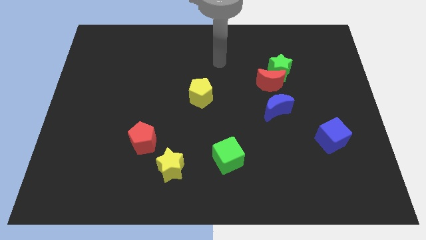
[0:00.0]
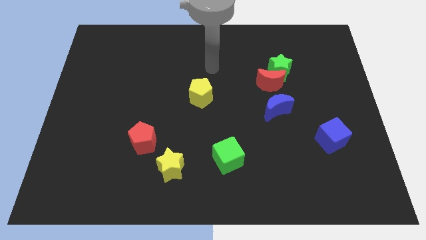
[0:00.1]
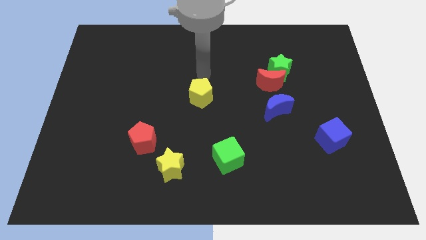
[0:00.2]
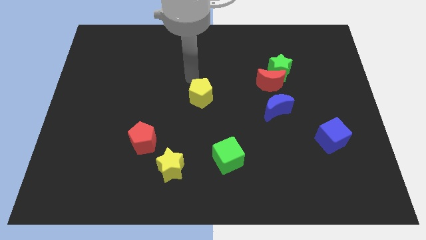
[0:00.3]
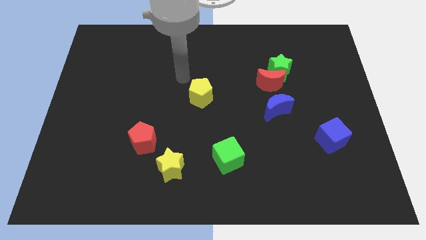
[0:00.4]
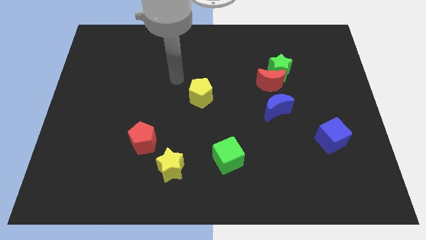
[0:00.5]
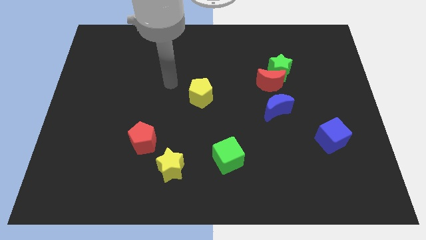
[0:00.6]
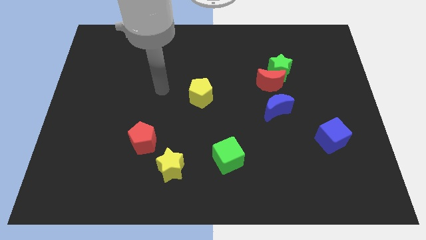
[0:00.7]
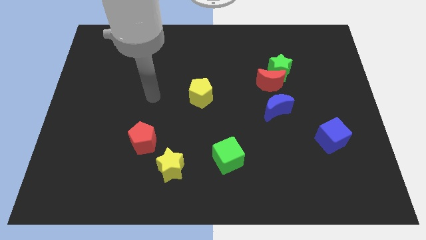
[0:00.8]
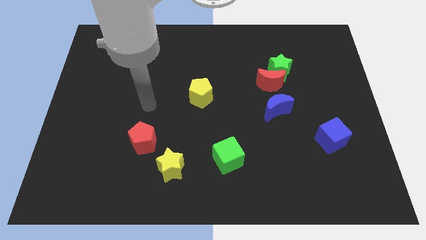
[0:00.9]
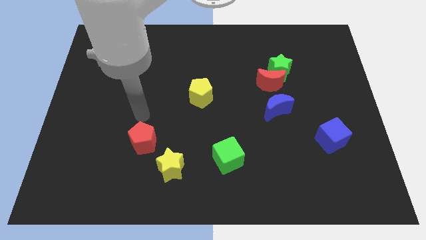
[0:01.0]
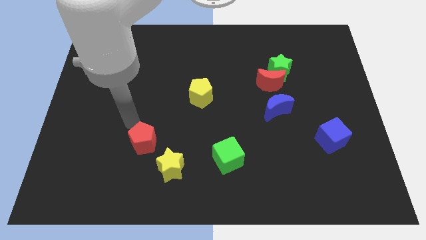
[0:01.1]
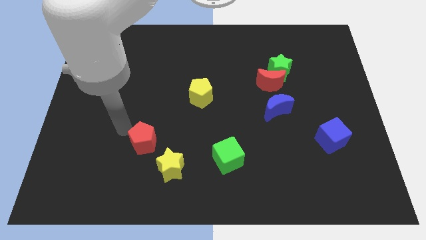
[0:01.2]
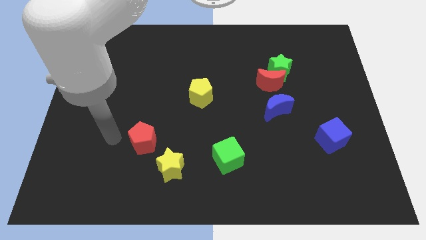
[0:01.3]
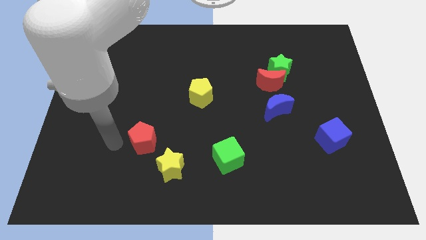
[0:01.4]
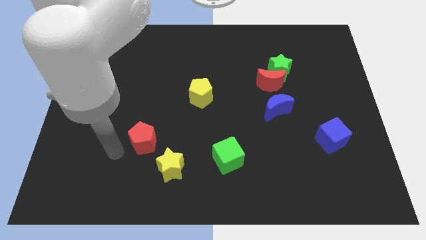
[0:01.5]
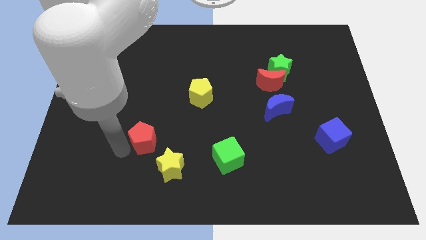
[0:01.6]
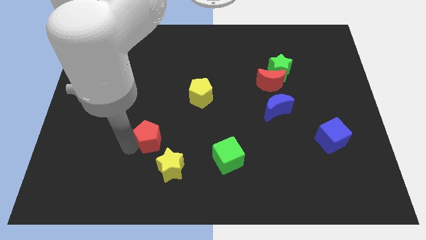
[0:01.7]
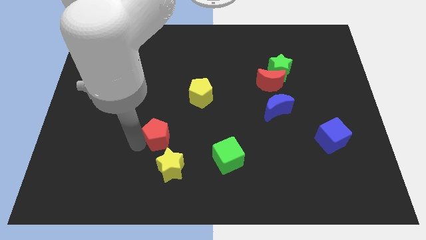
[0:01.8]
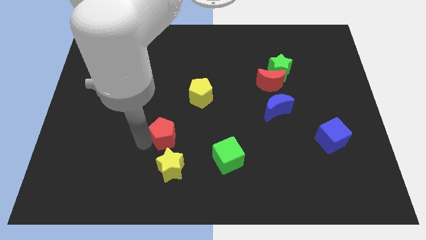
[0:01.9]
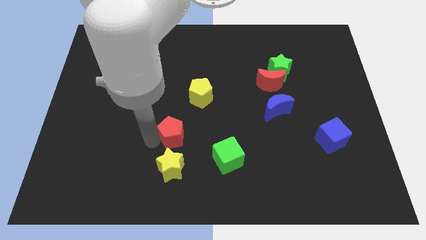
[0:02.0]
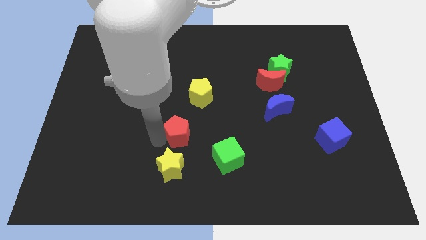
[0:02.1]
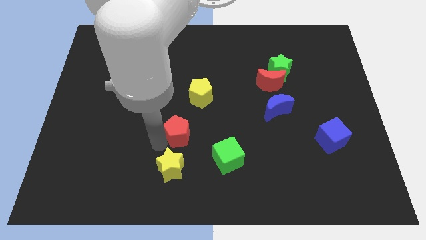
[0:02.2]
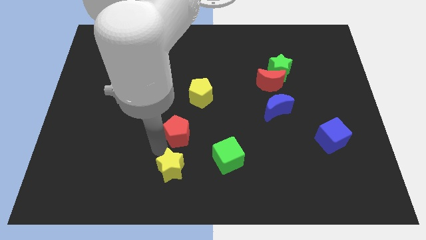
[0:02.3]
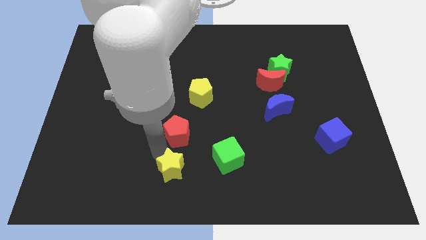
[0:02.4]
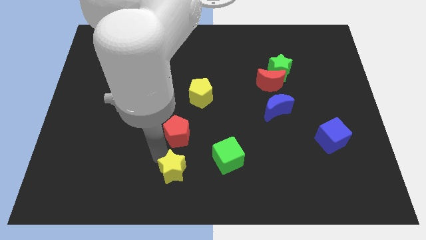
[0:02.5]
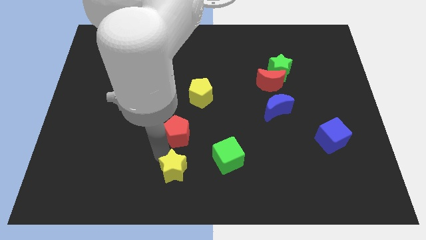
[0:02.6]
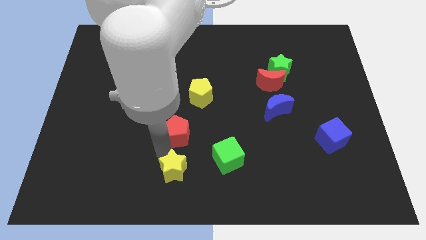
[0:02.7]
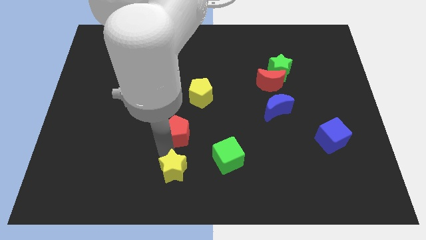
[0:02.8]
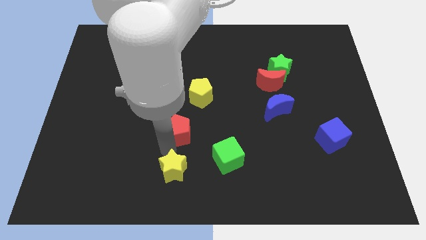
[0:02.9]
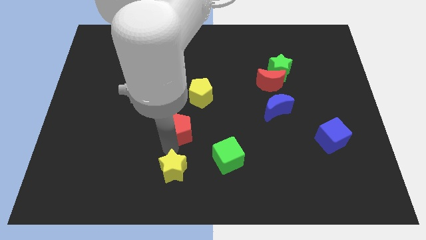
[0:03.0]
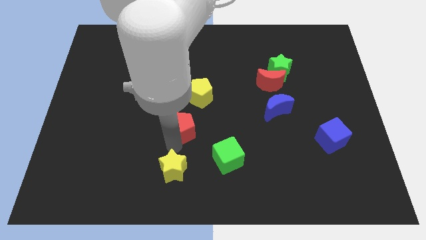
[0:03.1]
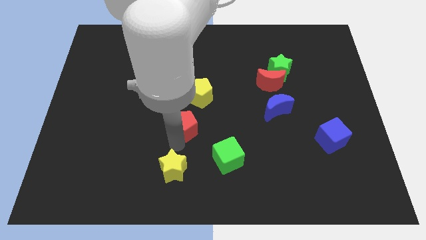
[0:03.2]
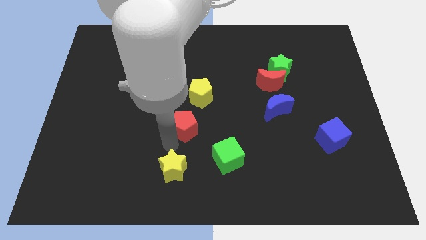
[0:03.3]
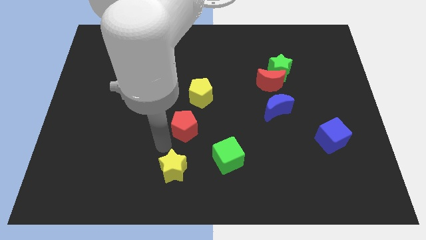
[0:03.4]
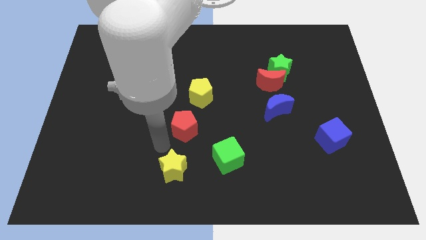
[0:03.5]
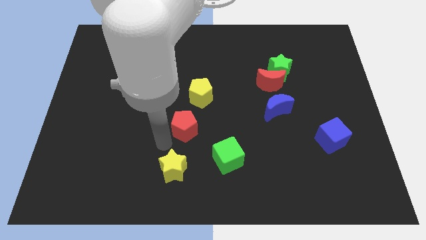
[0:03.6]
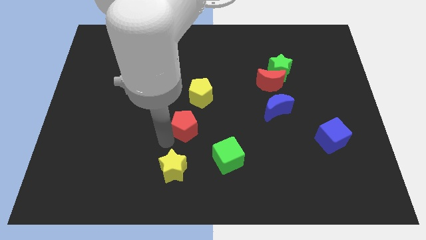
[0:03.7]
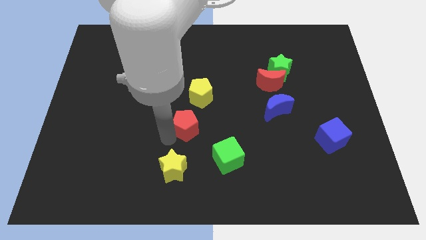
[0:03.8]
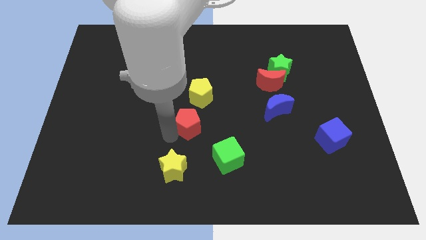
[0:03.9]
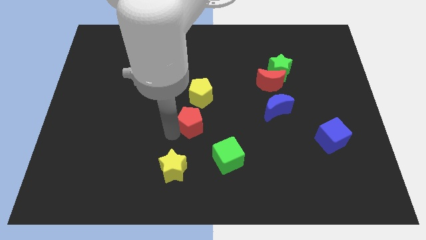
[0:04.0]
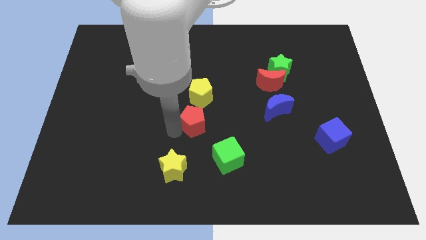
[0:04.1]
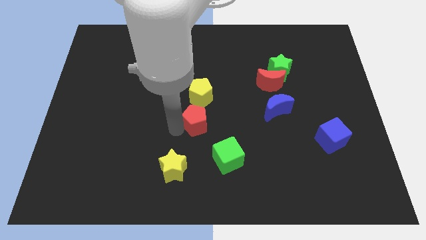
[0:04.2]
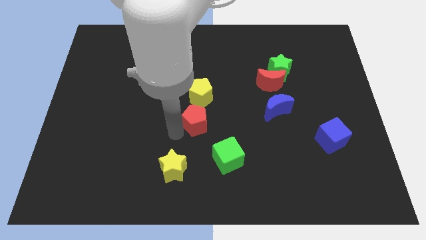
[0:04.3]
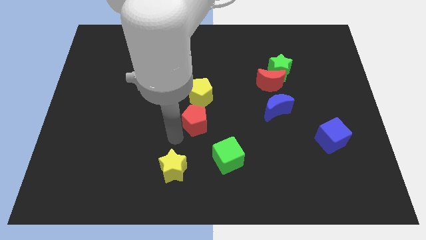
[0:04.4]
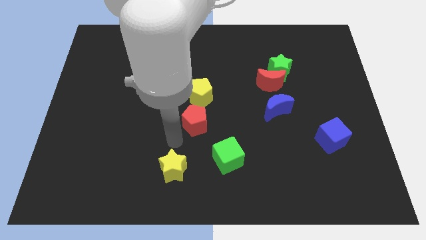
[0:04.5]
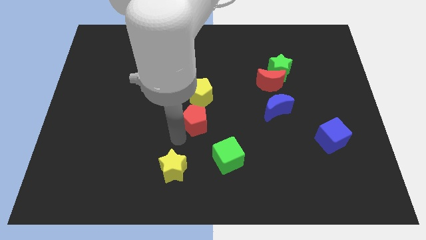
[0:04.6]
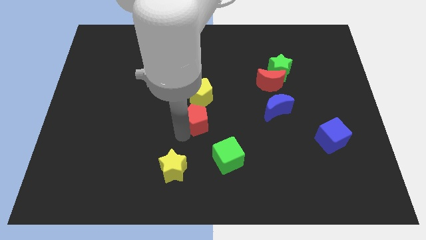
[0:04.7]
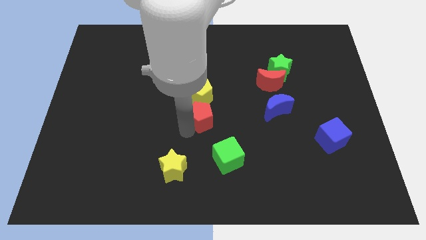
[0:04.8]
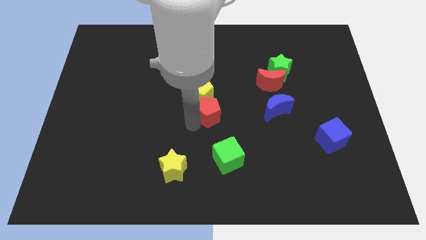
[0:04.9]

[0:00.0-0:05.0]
slide the red pentagon to the left of the blue moon

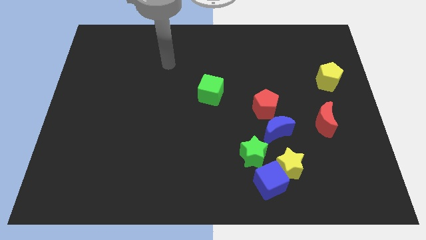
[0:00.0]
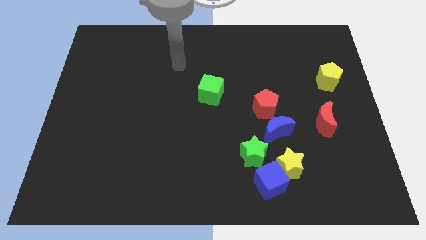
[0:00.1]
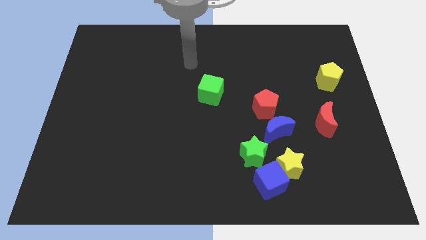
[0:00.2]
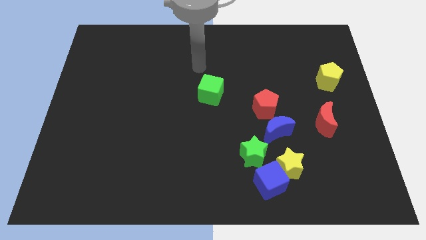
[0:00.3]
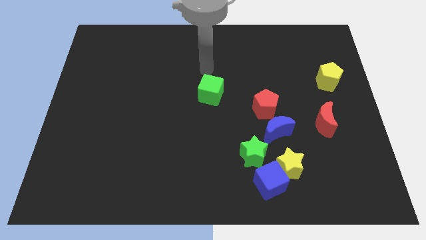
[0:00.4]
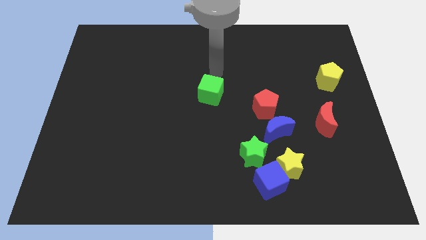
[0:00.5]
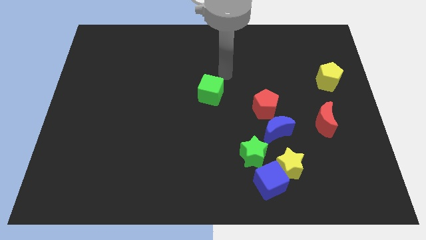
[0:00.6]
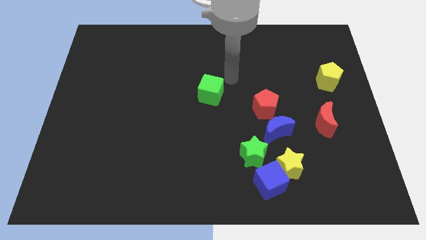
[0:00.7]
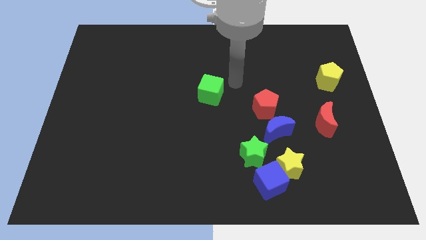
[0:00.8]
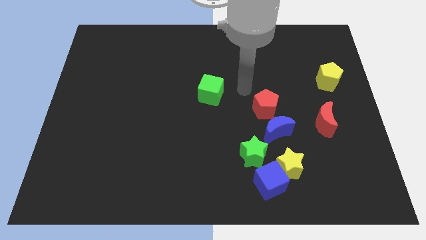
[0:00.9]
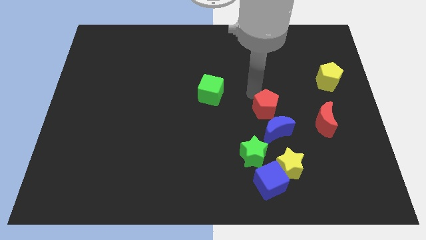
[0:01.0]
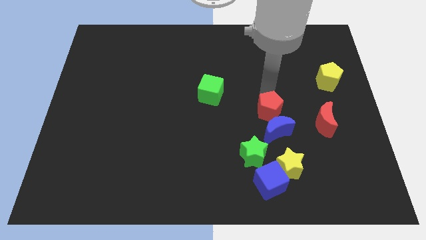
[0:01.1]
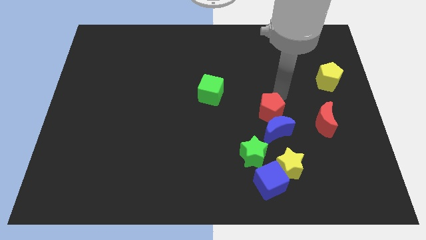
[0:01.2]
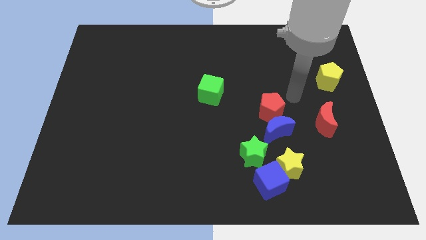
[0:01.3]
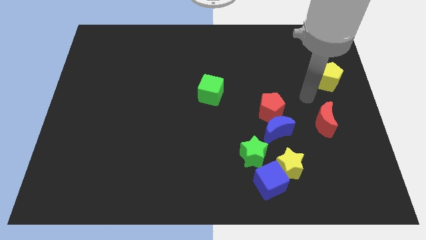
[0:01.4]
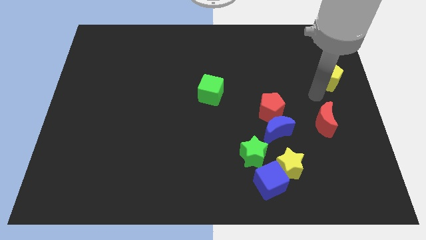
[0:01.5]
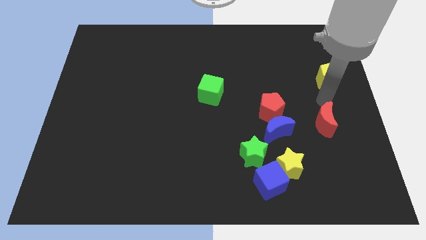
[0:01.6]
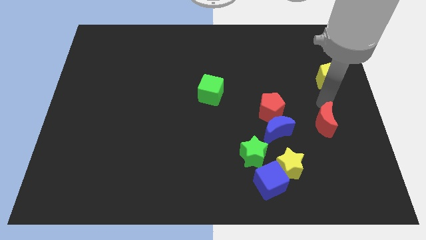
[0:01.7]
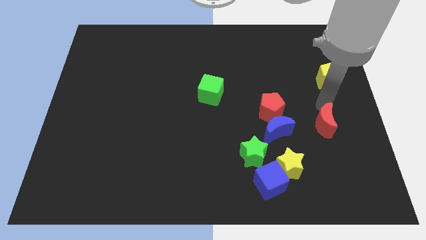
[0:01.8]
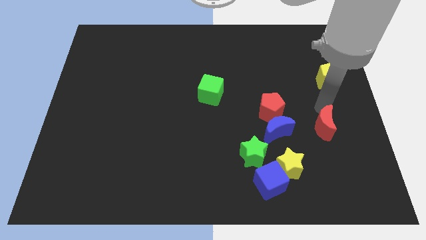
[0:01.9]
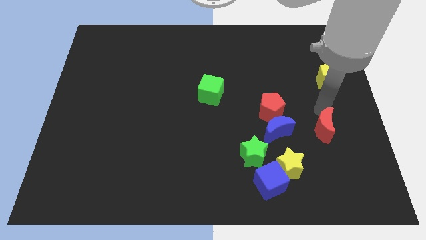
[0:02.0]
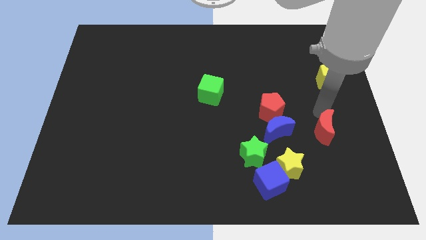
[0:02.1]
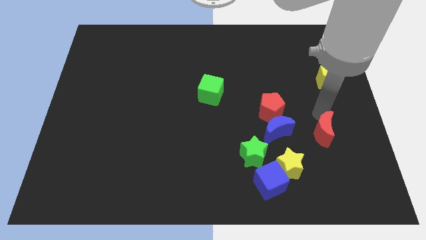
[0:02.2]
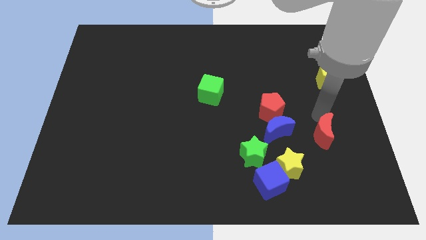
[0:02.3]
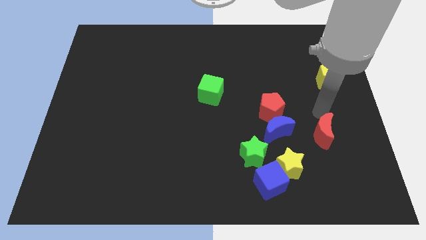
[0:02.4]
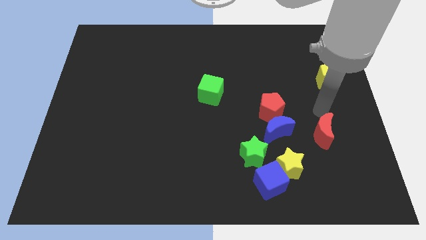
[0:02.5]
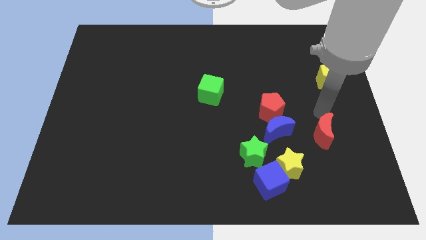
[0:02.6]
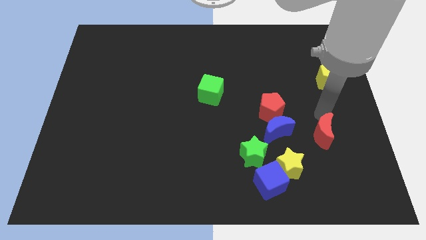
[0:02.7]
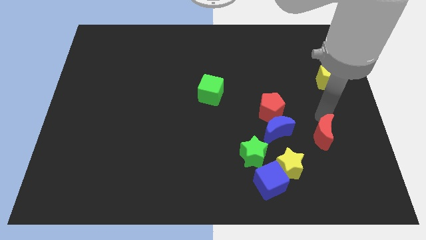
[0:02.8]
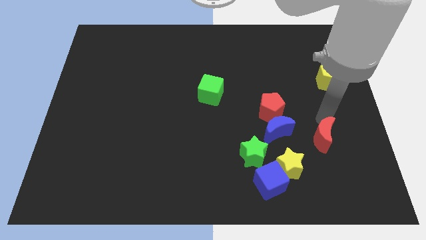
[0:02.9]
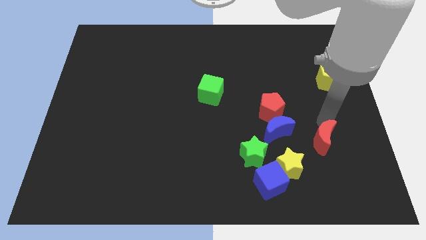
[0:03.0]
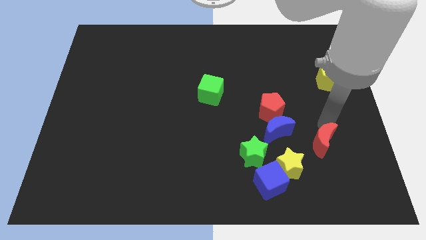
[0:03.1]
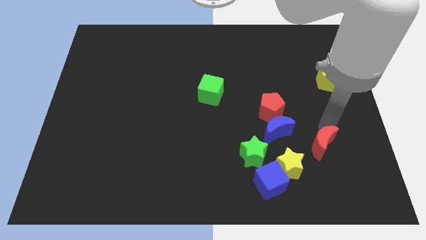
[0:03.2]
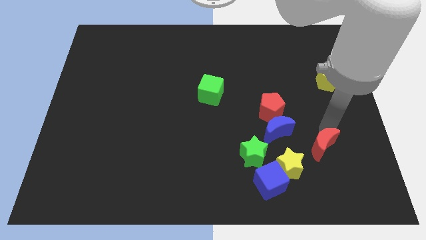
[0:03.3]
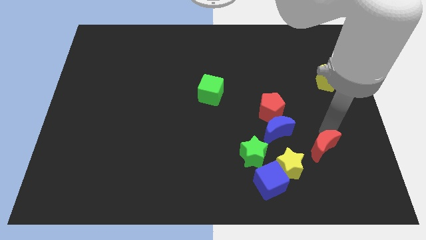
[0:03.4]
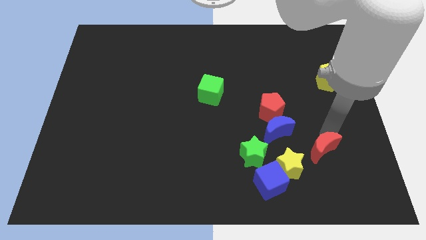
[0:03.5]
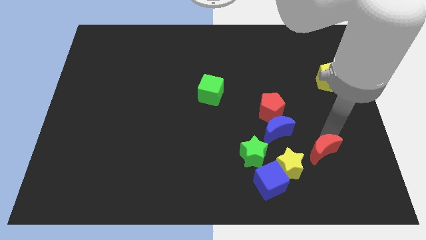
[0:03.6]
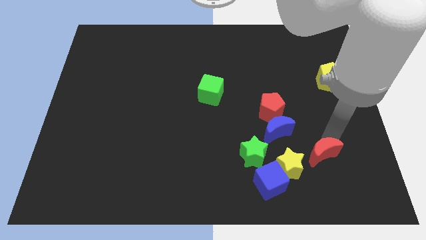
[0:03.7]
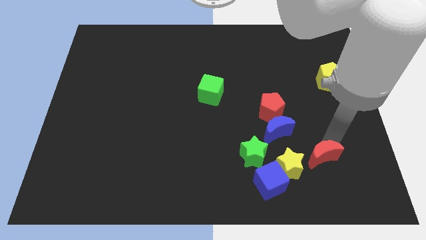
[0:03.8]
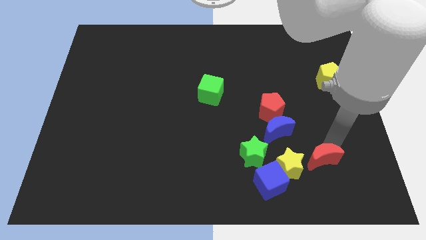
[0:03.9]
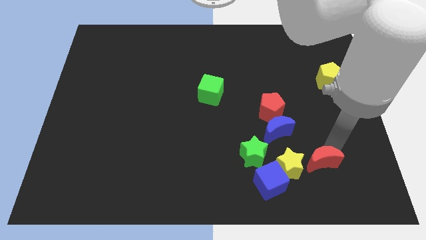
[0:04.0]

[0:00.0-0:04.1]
put the red moon to the right side of the blue cube
